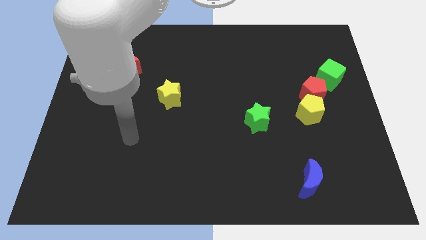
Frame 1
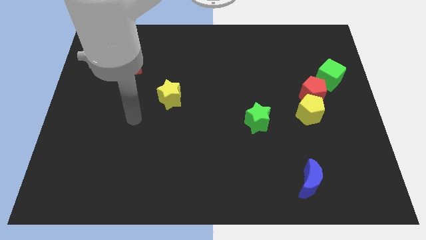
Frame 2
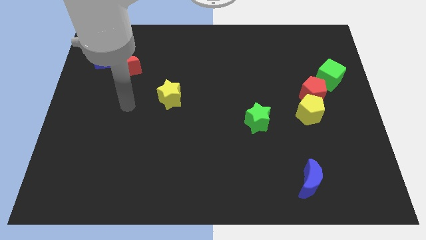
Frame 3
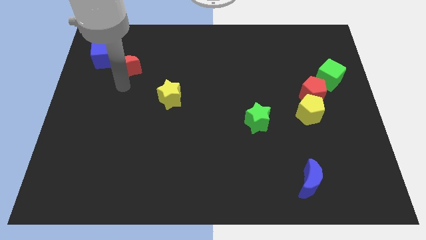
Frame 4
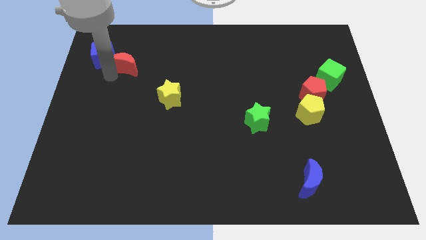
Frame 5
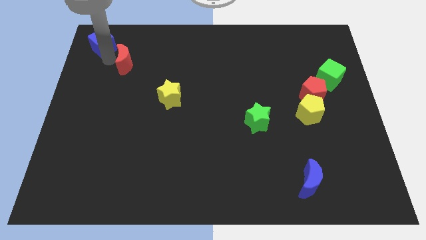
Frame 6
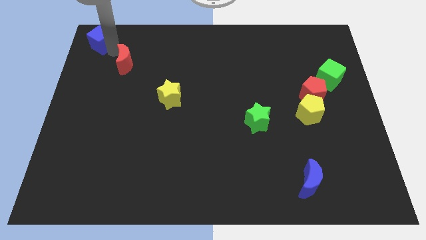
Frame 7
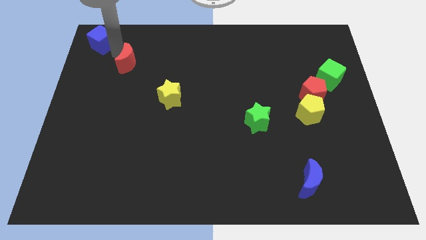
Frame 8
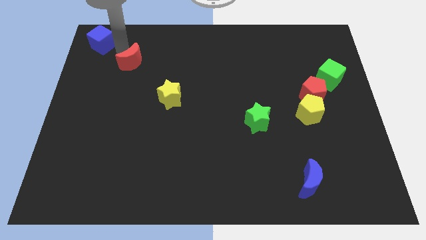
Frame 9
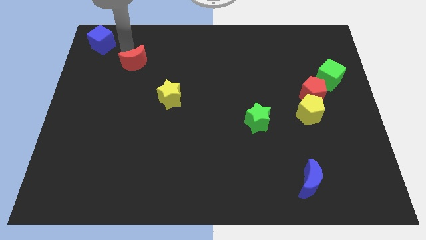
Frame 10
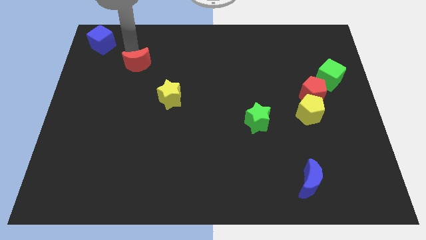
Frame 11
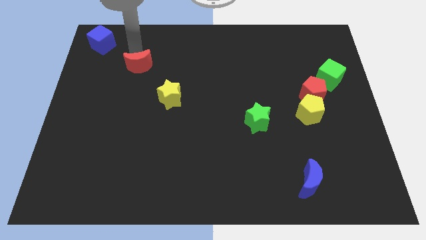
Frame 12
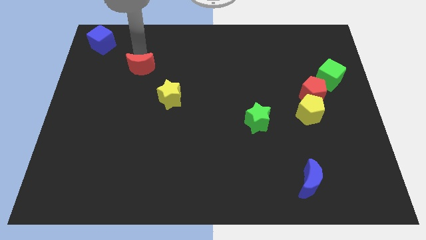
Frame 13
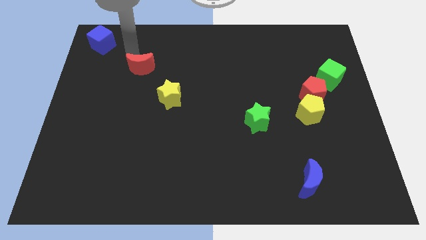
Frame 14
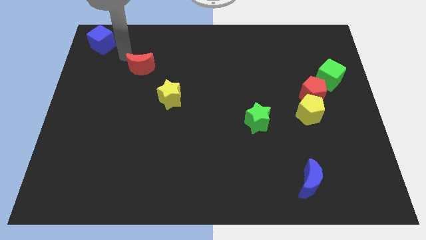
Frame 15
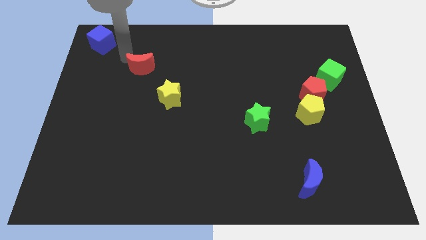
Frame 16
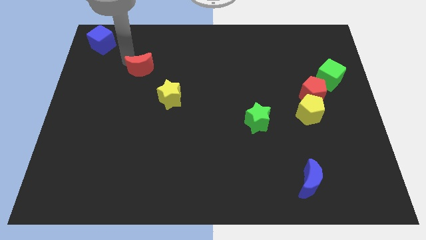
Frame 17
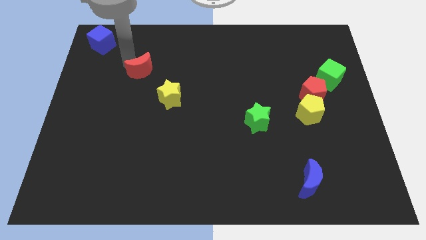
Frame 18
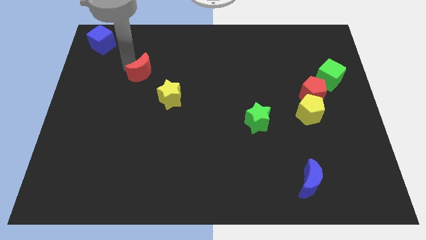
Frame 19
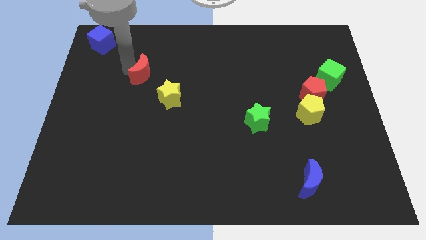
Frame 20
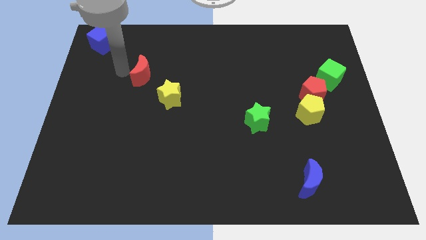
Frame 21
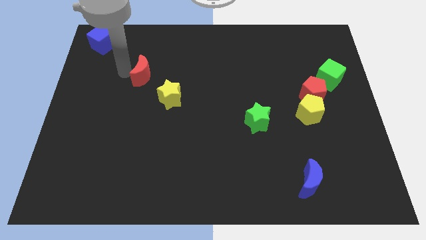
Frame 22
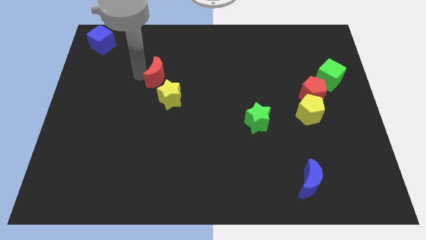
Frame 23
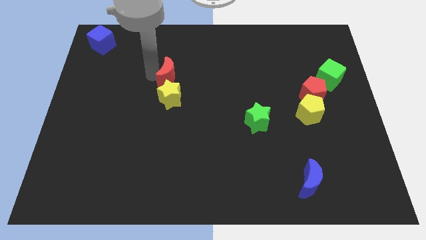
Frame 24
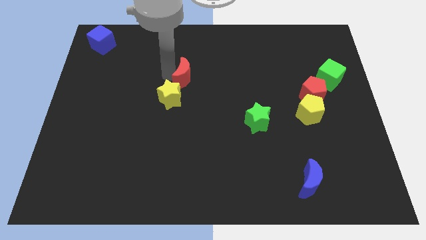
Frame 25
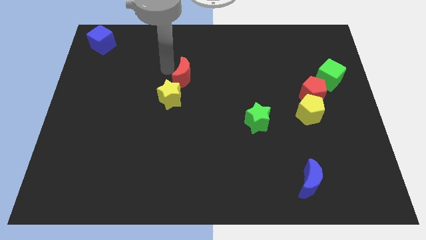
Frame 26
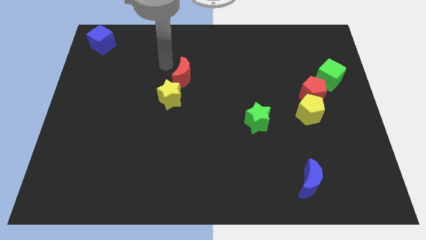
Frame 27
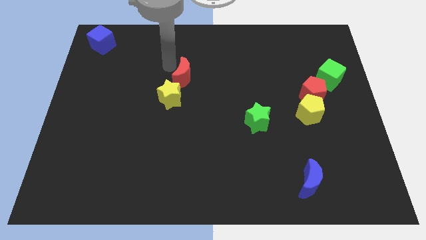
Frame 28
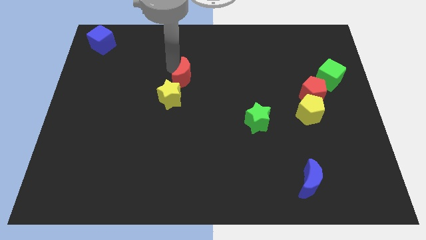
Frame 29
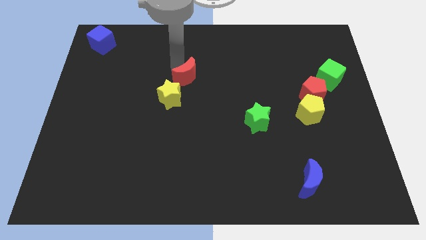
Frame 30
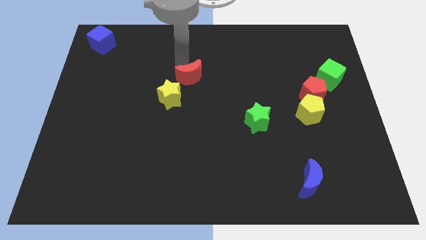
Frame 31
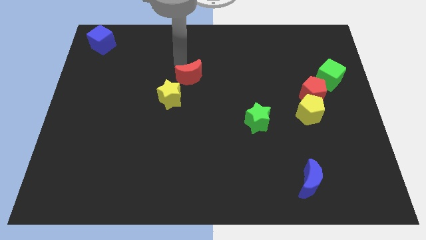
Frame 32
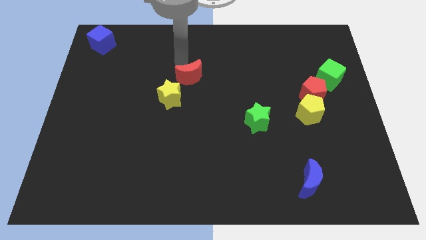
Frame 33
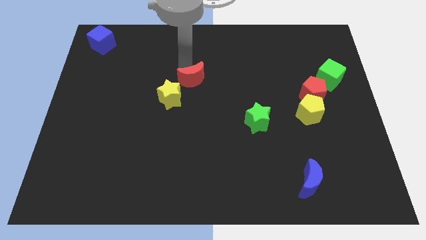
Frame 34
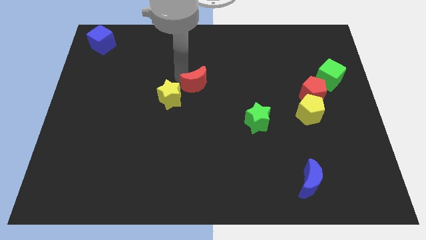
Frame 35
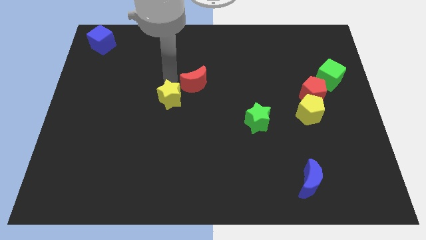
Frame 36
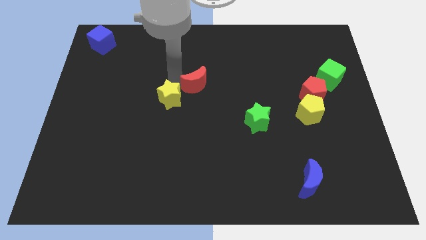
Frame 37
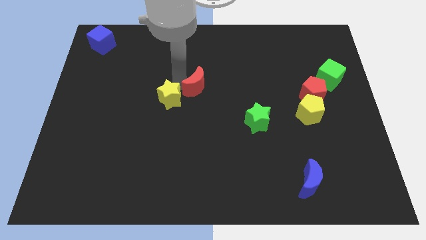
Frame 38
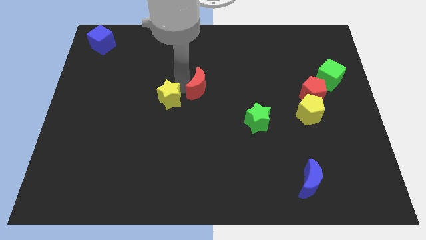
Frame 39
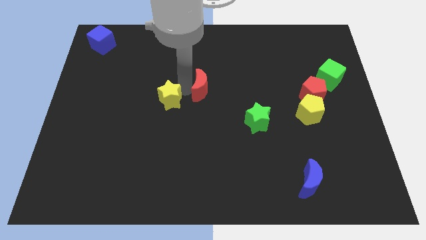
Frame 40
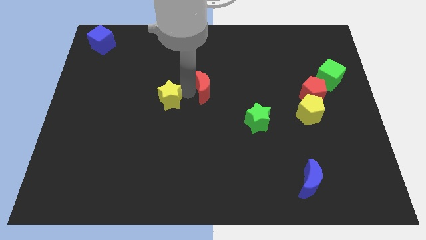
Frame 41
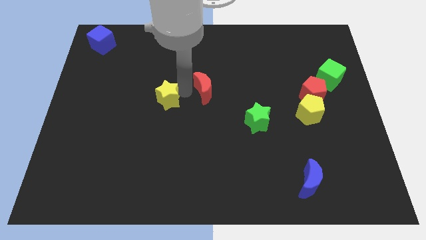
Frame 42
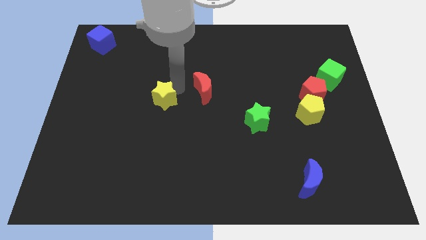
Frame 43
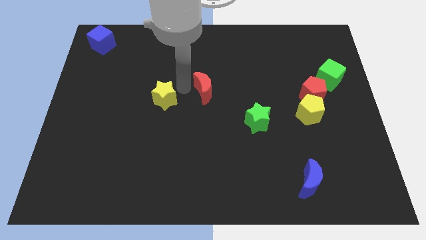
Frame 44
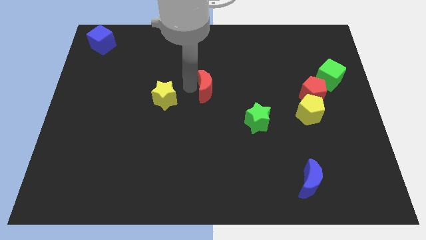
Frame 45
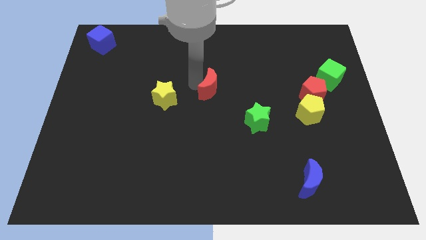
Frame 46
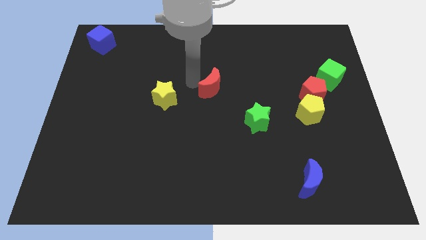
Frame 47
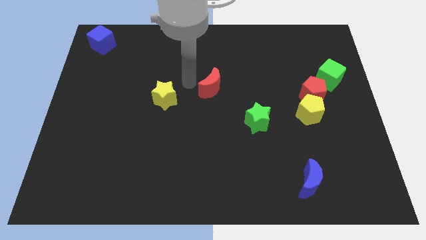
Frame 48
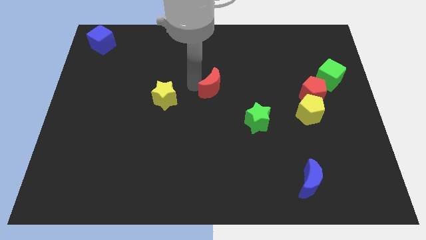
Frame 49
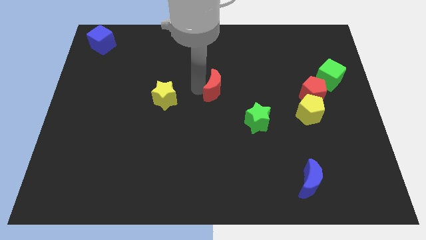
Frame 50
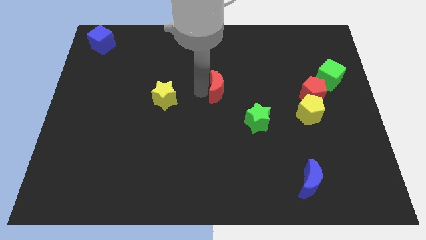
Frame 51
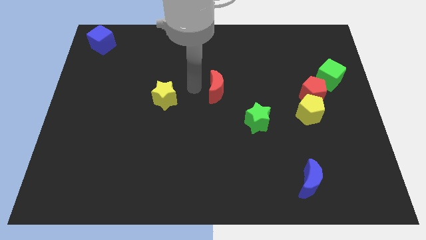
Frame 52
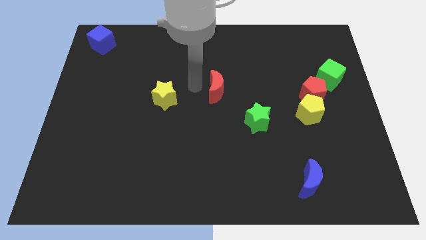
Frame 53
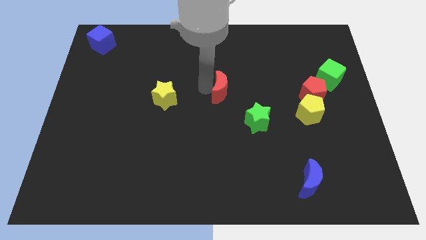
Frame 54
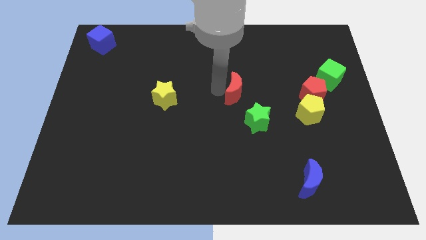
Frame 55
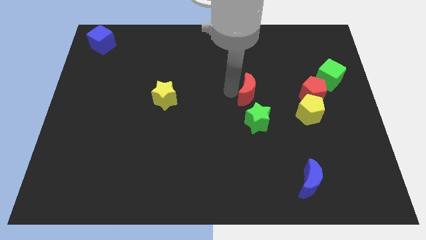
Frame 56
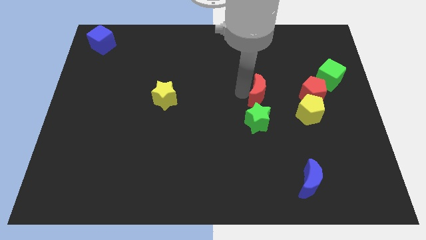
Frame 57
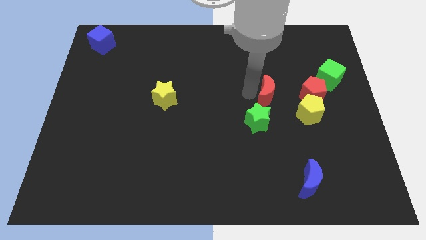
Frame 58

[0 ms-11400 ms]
push the red moon diagonally up and to the left of the yellow pentagon

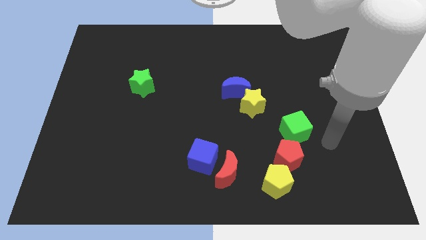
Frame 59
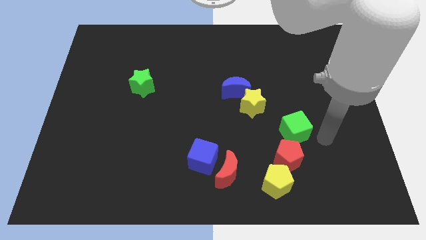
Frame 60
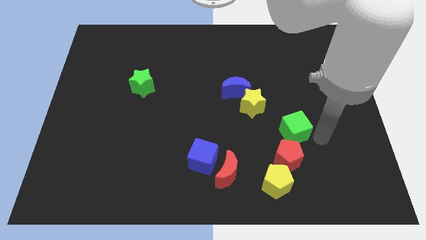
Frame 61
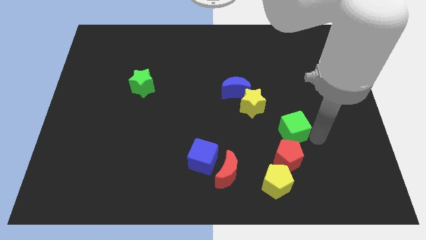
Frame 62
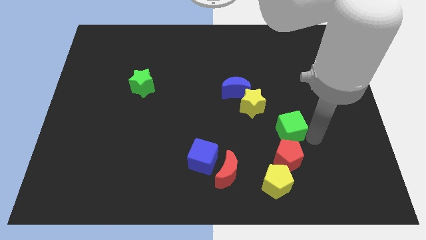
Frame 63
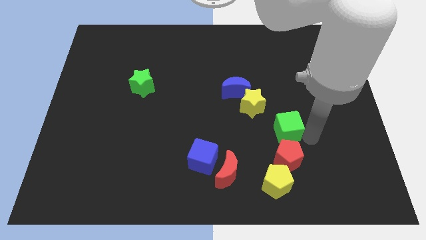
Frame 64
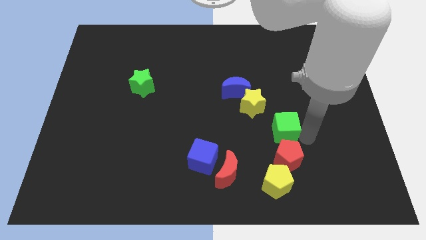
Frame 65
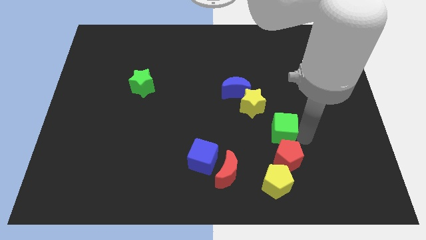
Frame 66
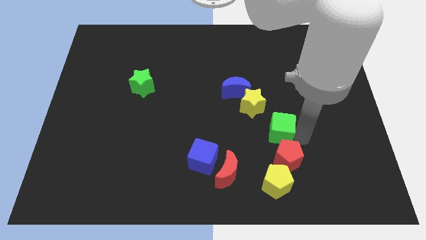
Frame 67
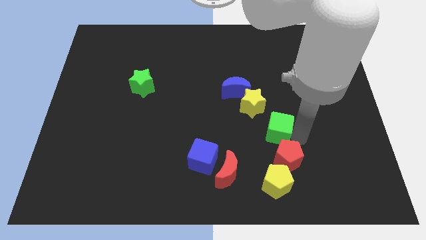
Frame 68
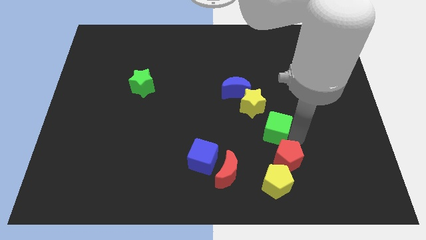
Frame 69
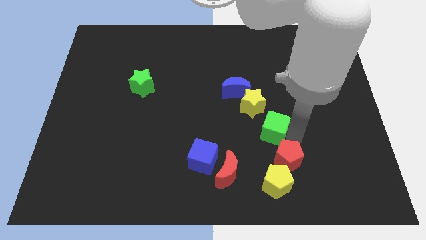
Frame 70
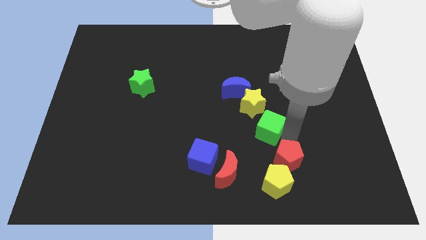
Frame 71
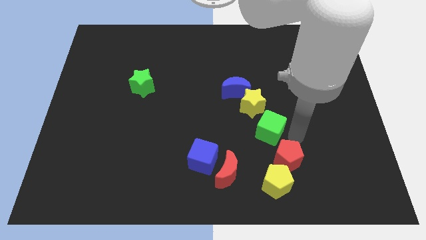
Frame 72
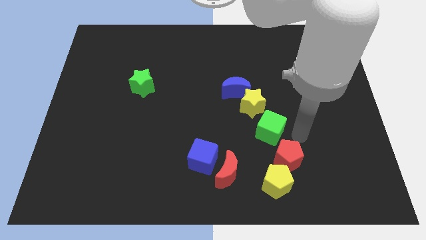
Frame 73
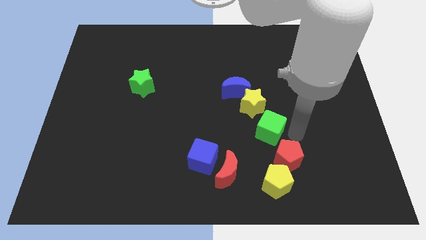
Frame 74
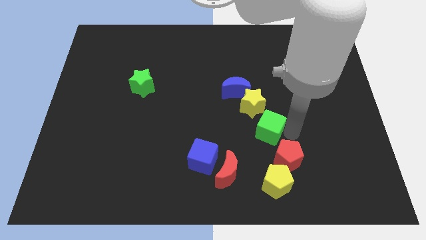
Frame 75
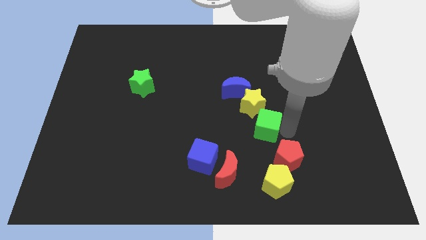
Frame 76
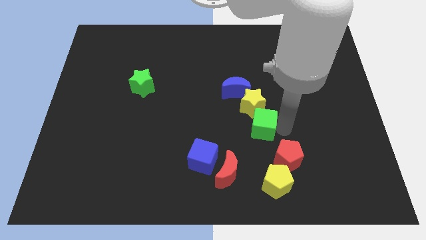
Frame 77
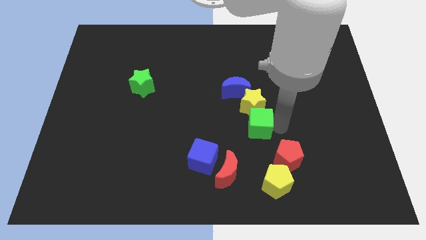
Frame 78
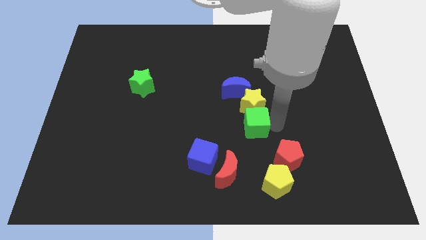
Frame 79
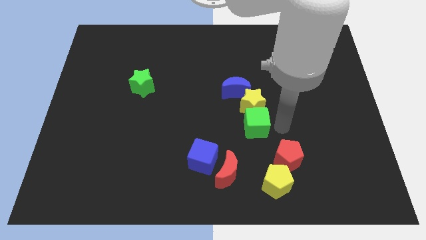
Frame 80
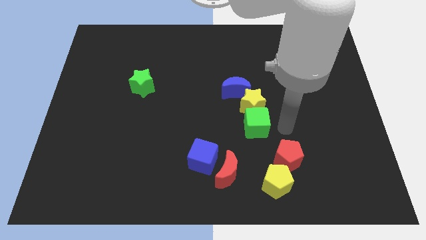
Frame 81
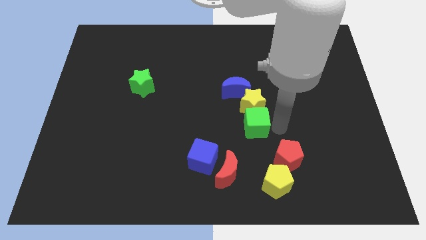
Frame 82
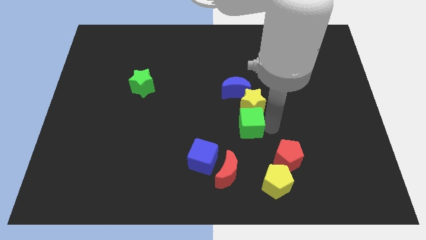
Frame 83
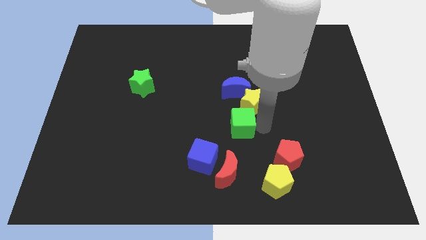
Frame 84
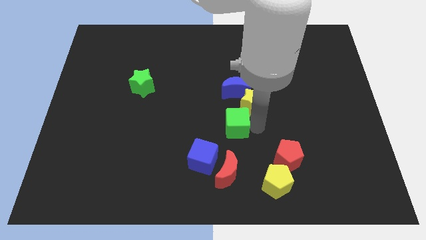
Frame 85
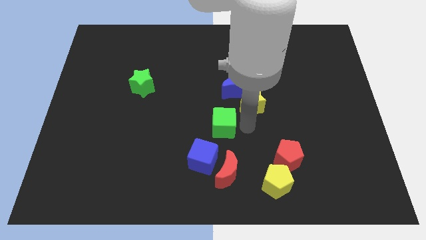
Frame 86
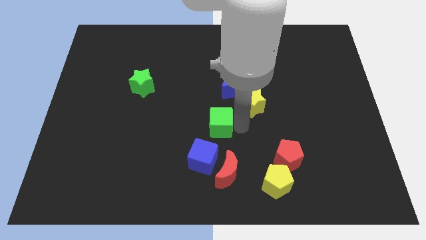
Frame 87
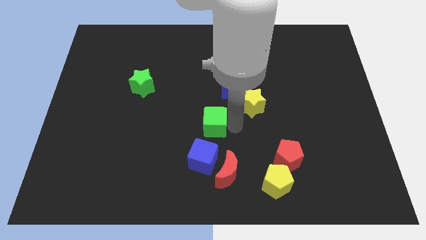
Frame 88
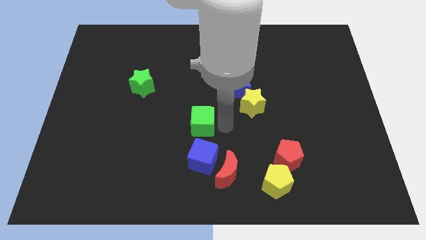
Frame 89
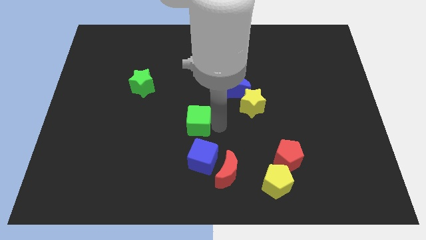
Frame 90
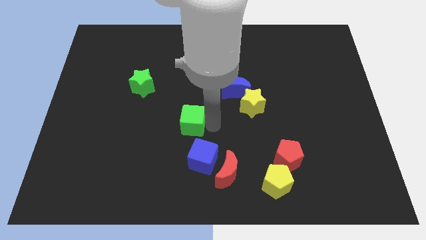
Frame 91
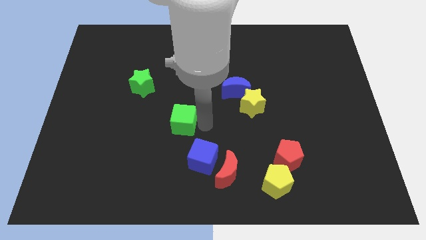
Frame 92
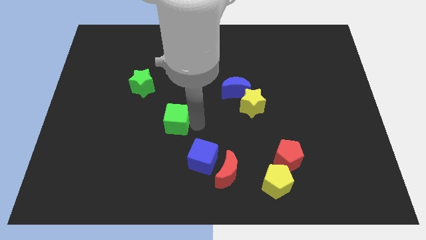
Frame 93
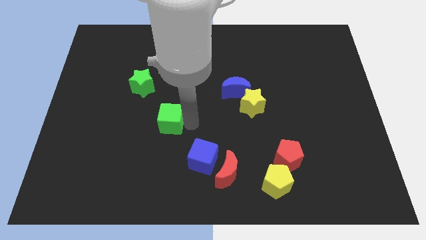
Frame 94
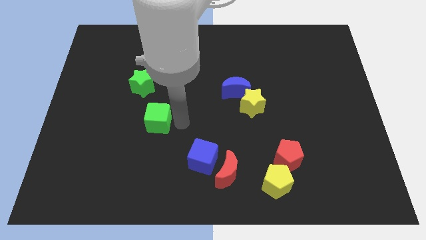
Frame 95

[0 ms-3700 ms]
push the green cube below the green star
